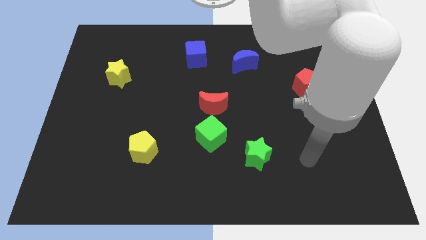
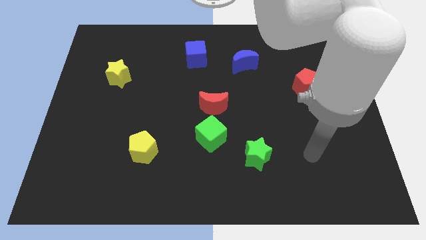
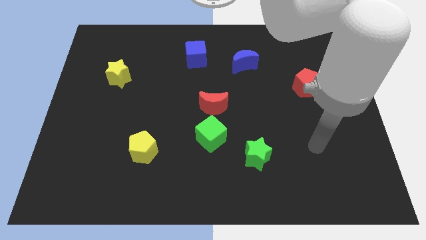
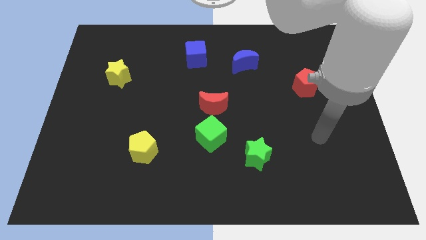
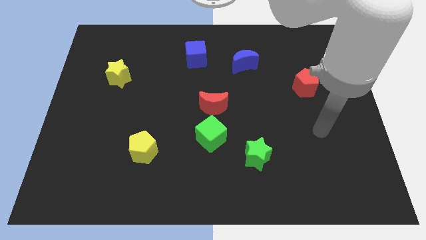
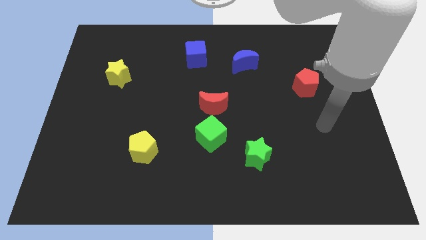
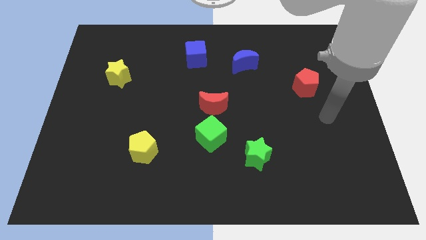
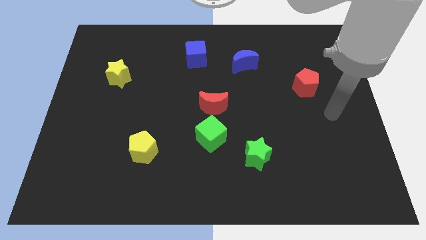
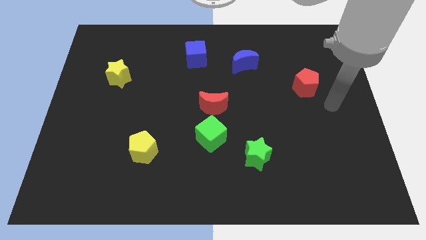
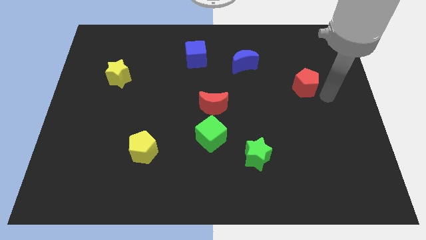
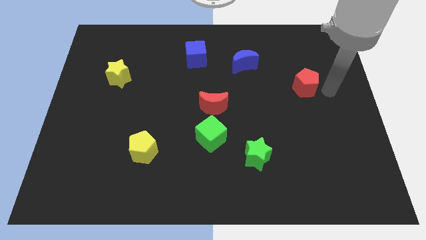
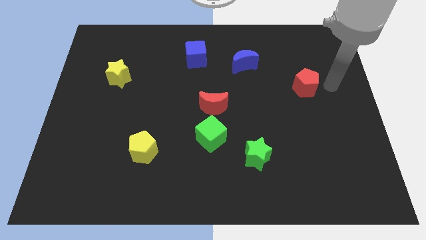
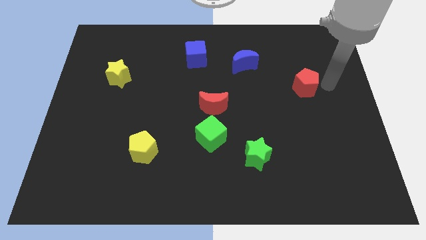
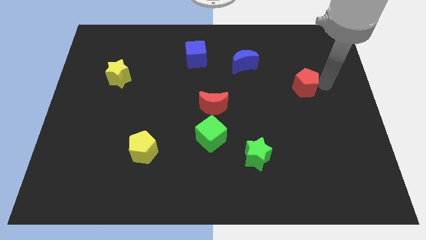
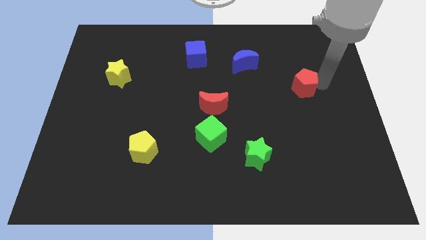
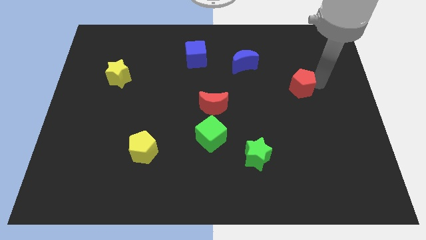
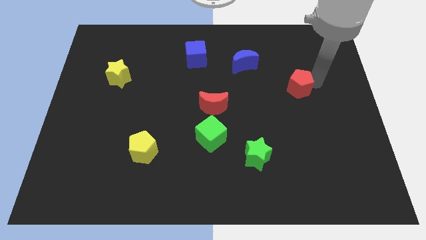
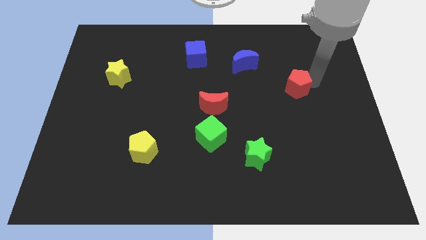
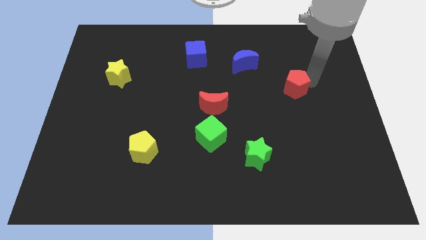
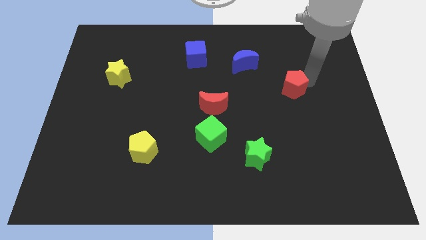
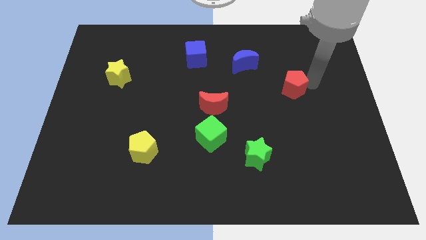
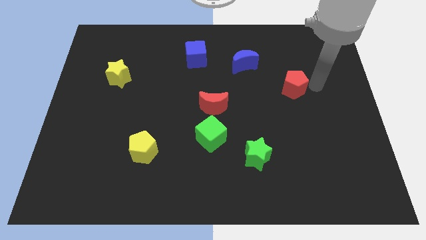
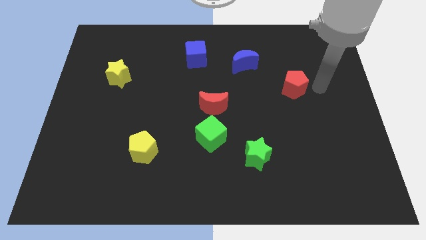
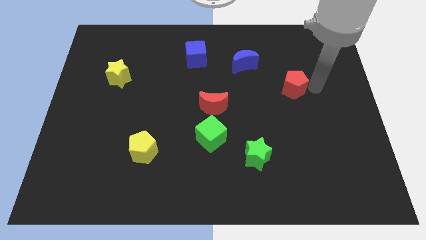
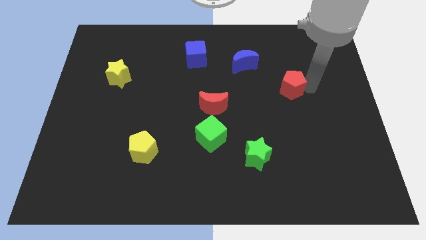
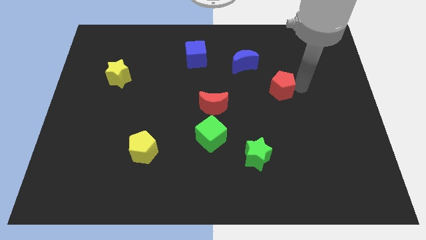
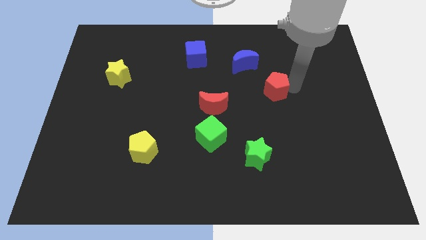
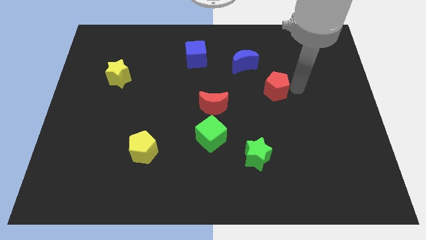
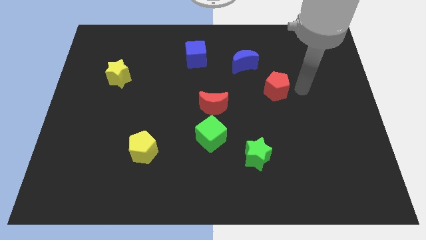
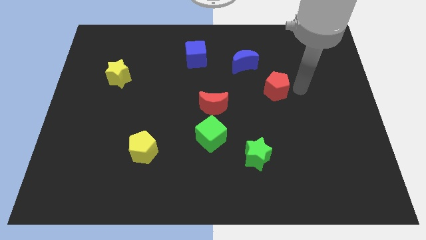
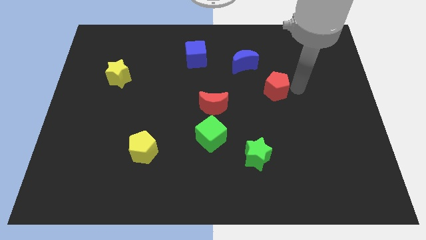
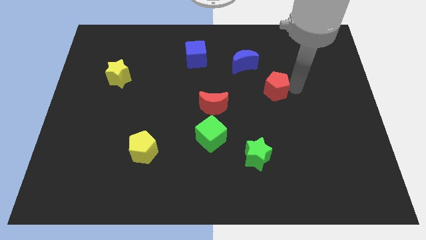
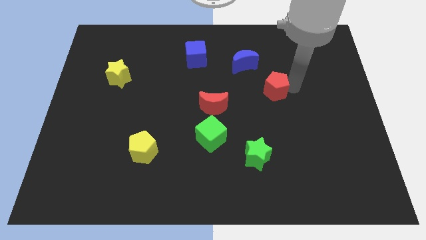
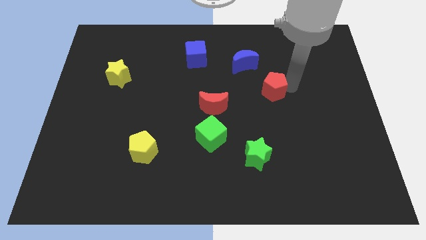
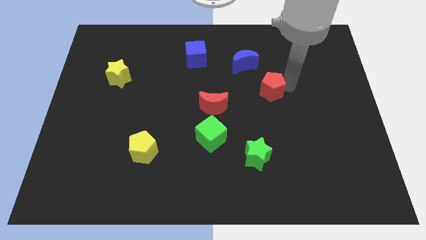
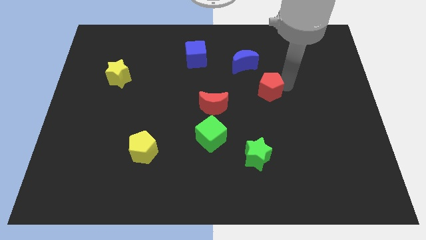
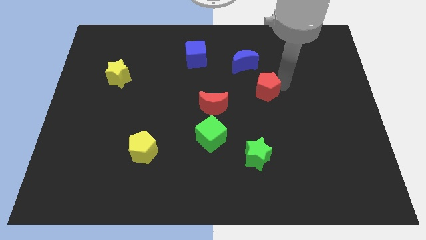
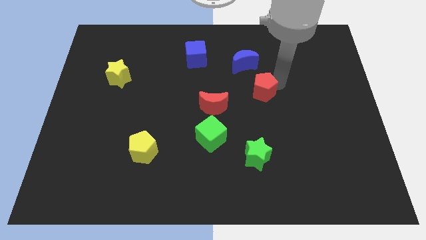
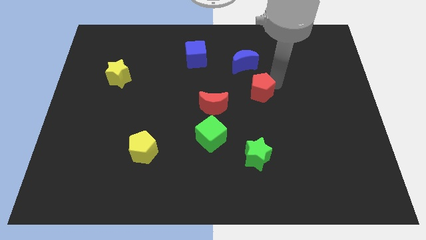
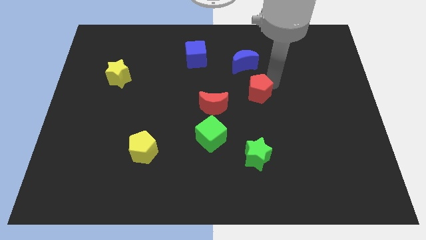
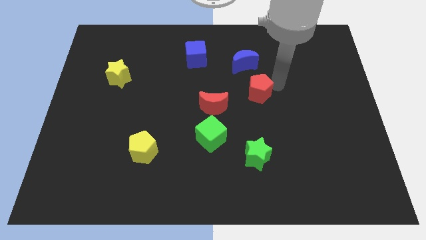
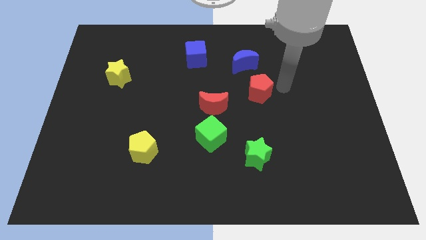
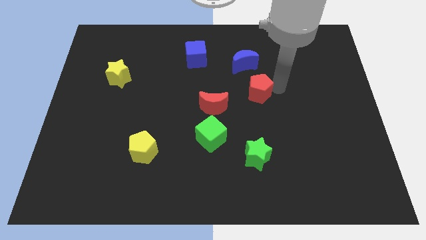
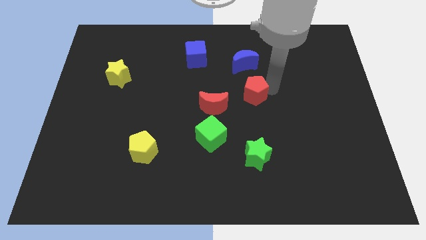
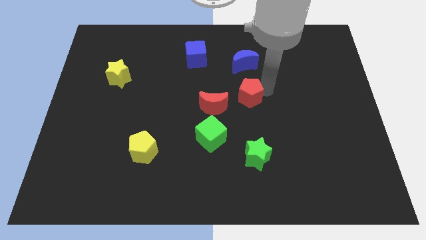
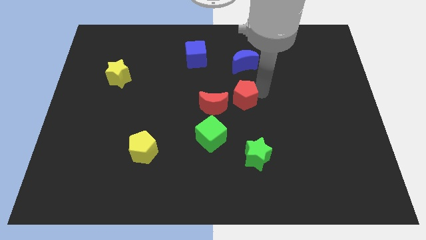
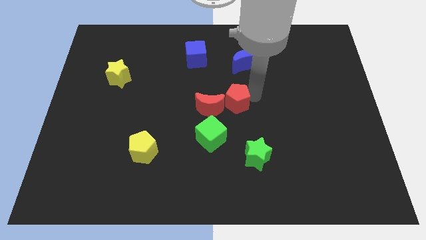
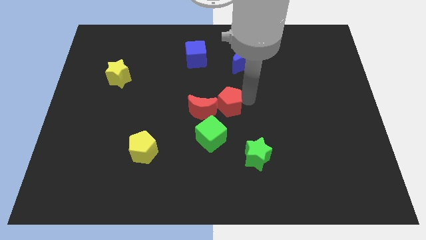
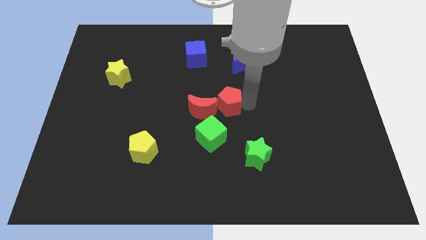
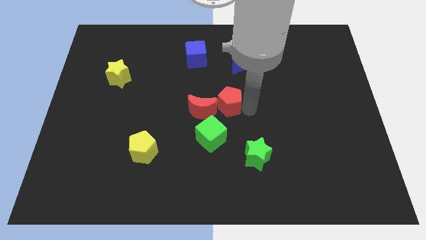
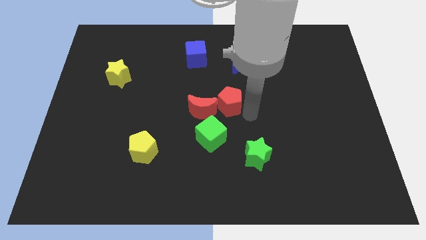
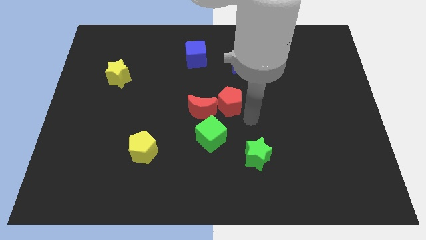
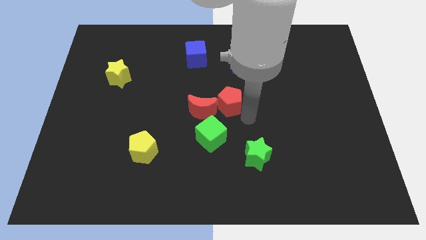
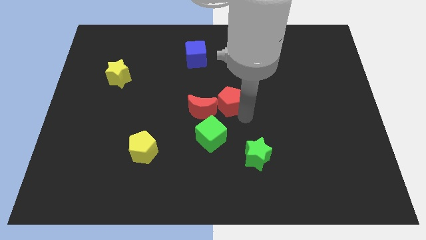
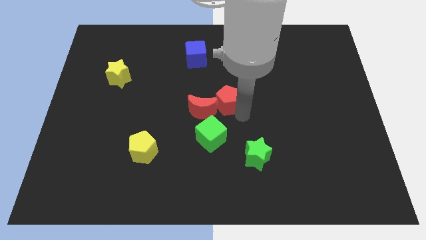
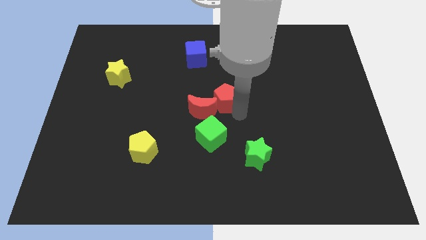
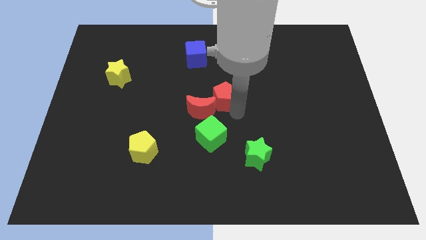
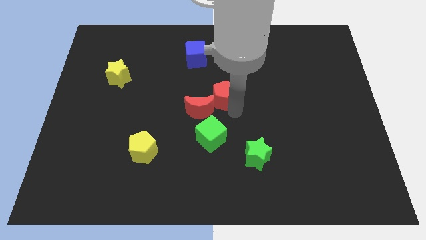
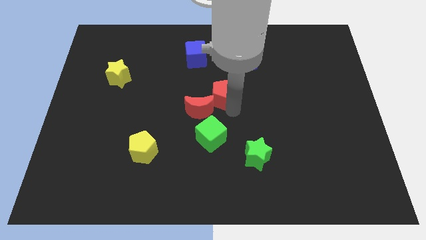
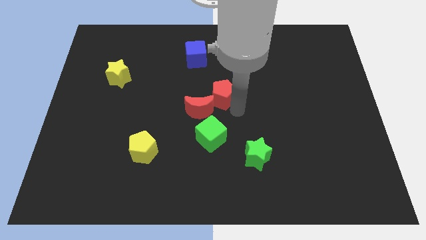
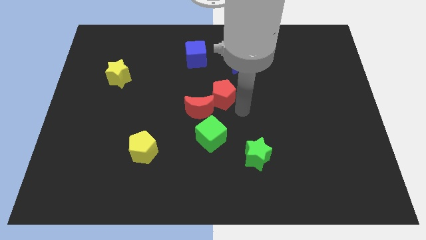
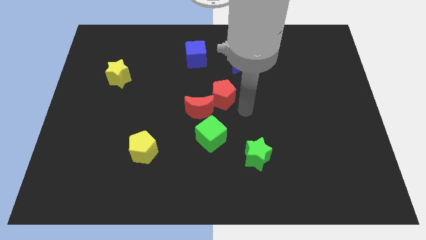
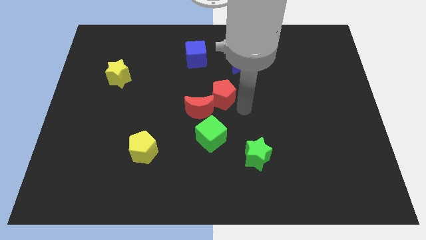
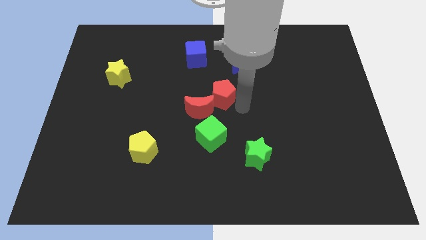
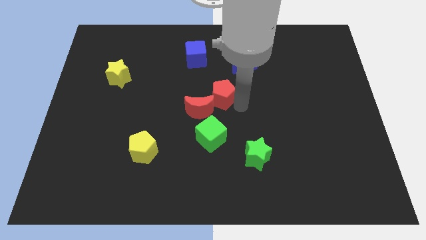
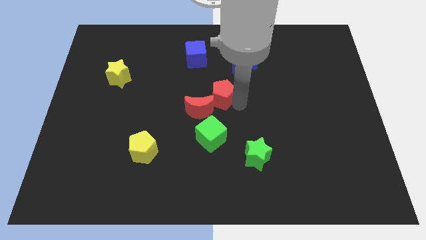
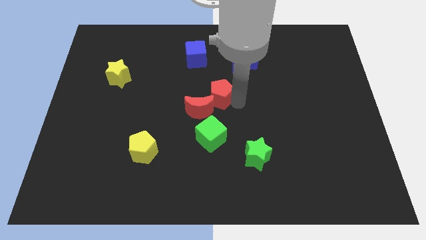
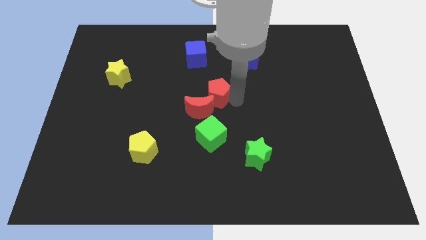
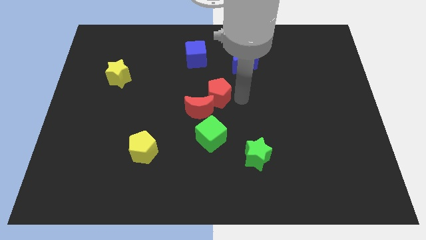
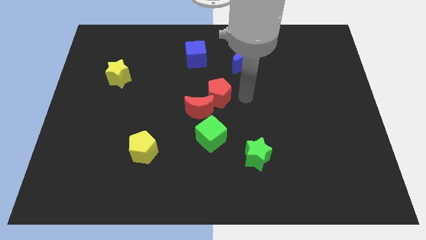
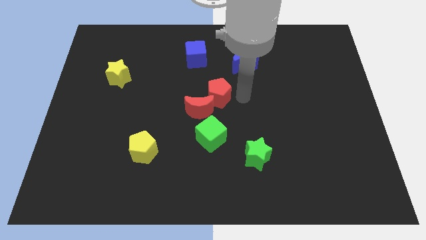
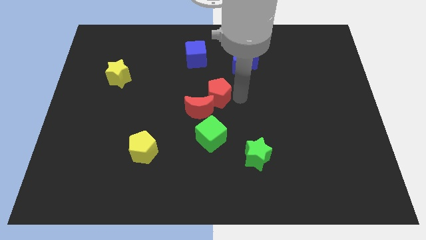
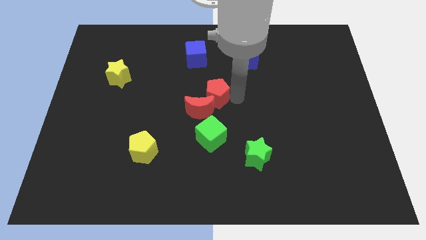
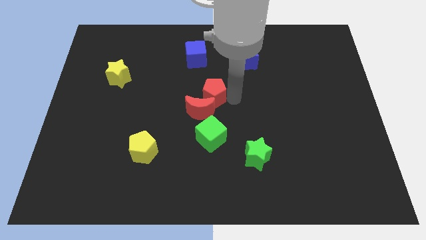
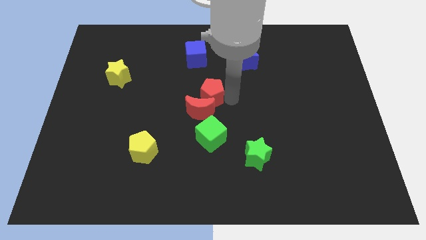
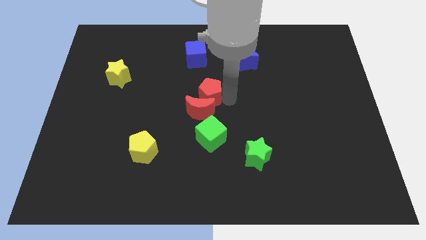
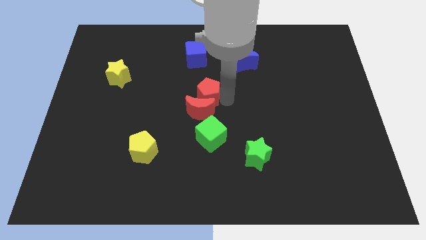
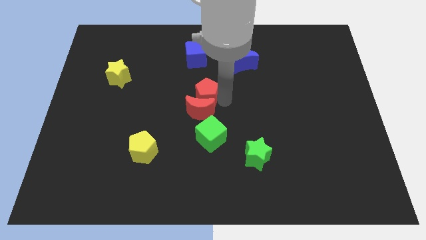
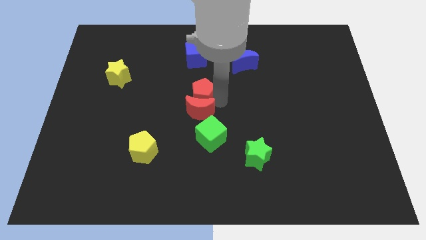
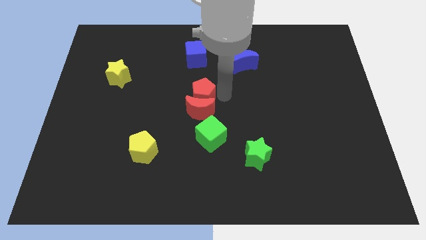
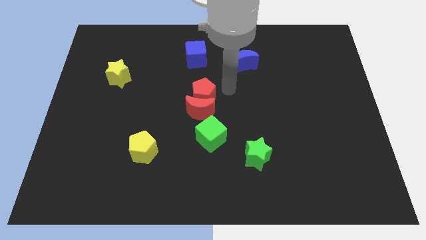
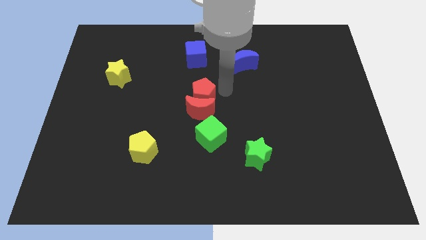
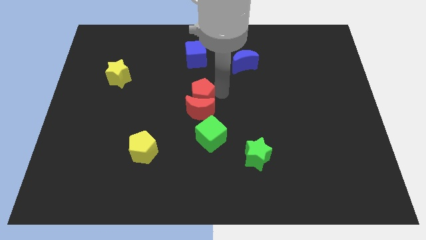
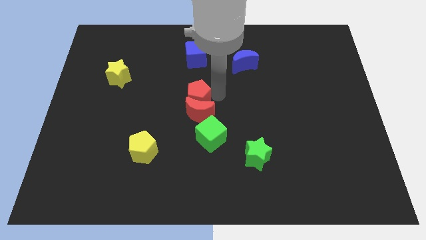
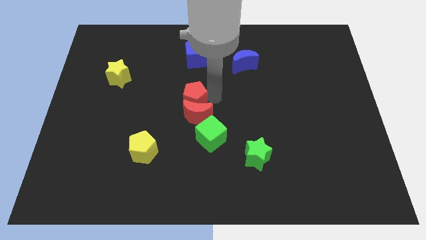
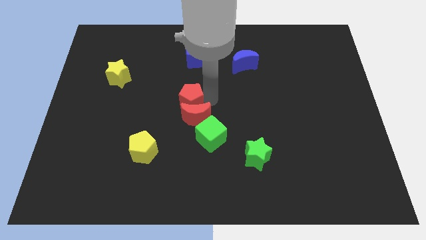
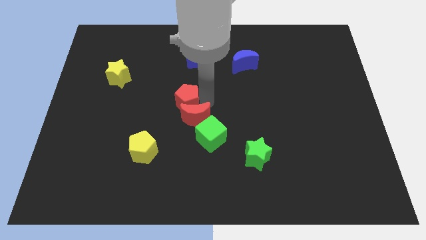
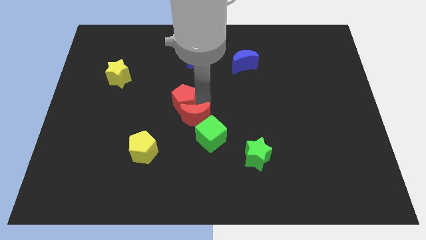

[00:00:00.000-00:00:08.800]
move the red pentagon to the left side of the red moon
